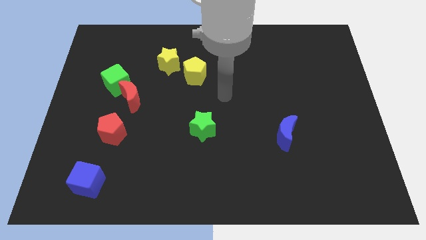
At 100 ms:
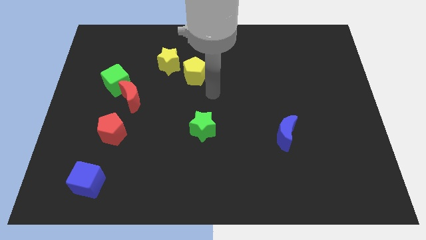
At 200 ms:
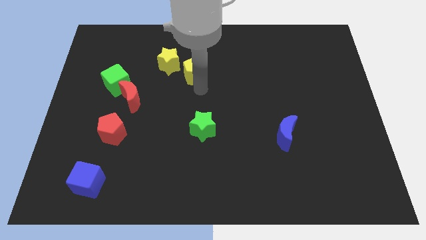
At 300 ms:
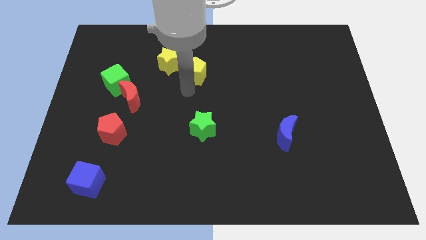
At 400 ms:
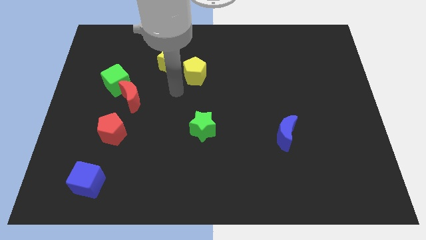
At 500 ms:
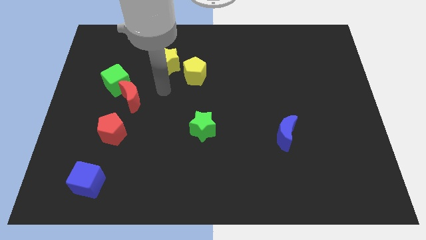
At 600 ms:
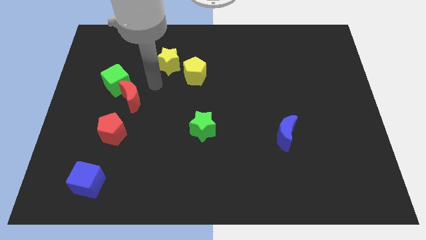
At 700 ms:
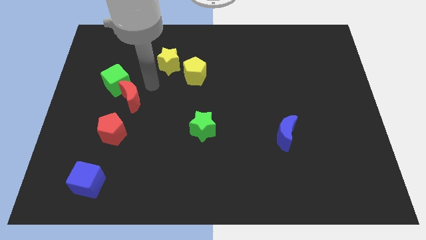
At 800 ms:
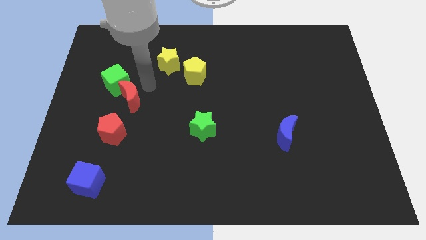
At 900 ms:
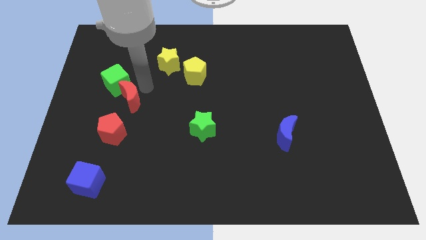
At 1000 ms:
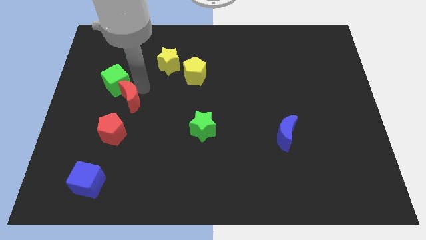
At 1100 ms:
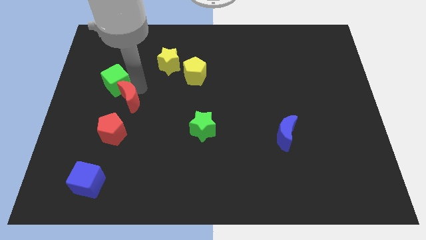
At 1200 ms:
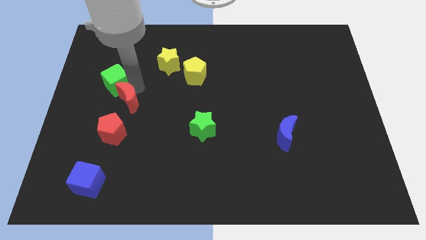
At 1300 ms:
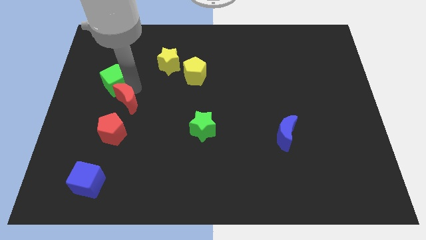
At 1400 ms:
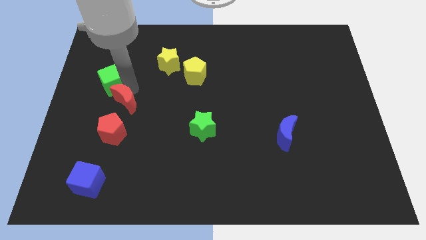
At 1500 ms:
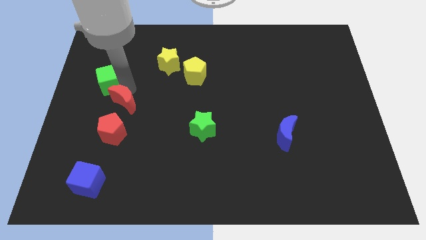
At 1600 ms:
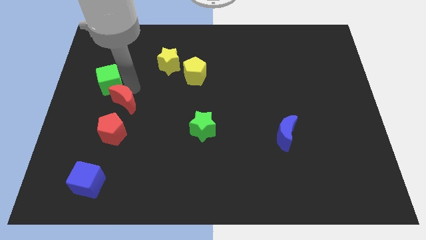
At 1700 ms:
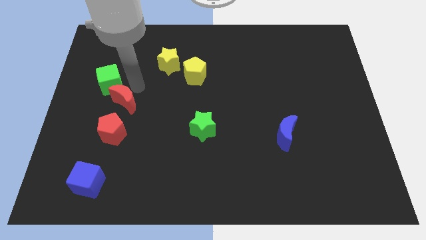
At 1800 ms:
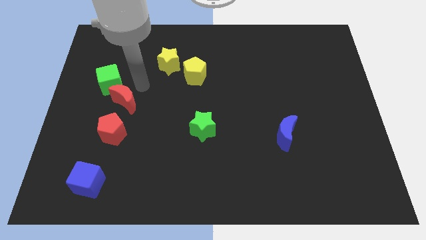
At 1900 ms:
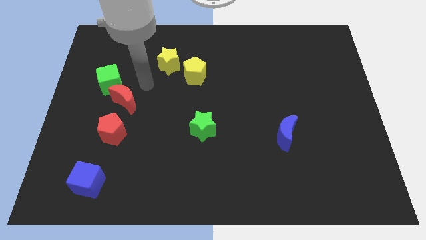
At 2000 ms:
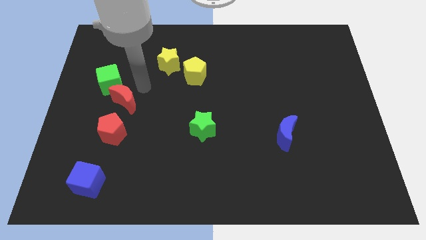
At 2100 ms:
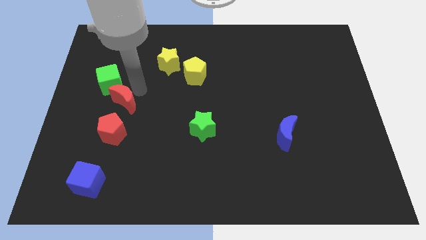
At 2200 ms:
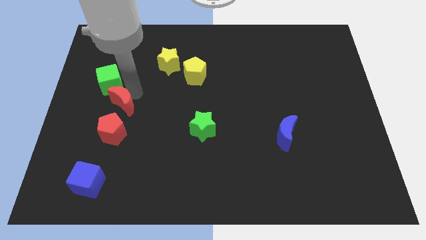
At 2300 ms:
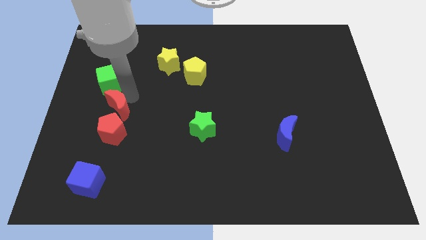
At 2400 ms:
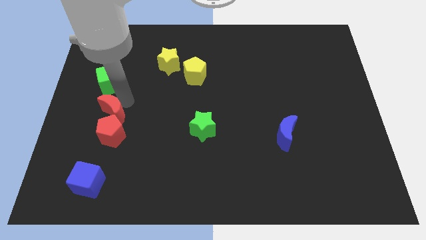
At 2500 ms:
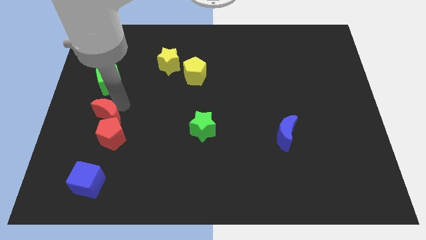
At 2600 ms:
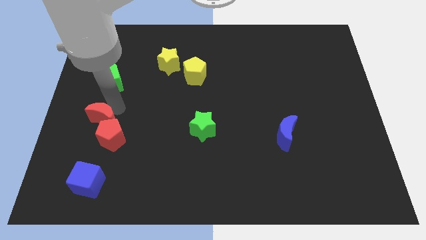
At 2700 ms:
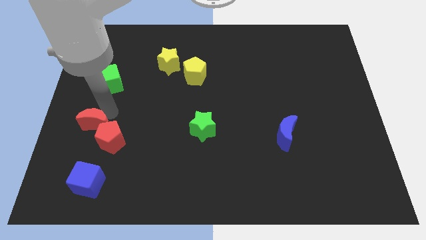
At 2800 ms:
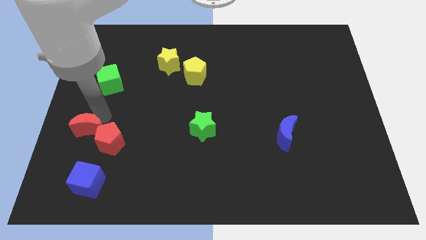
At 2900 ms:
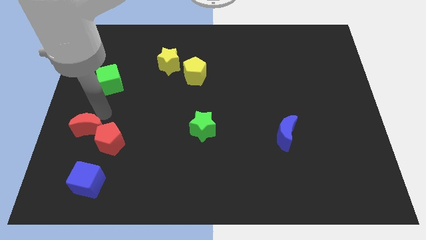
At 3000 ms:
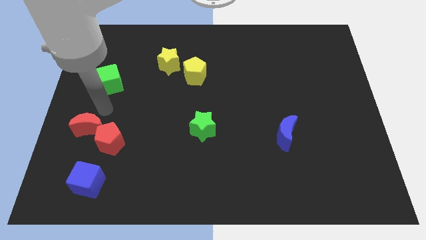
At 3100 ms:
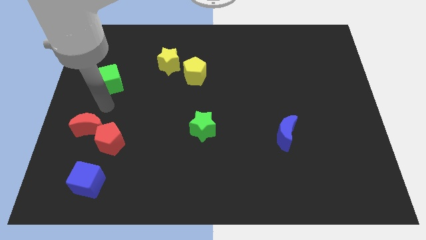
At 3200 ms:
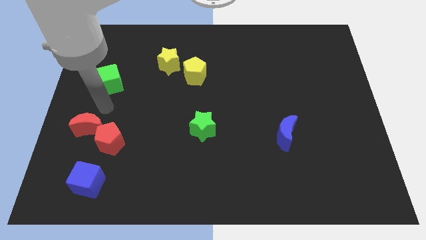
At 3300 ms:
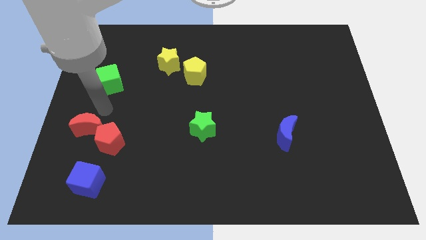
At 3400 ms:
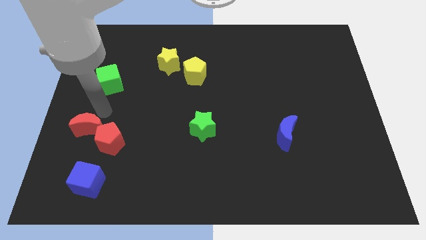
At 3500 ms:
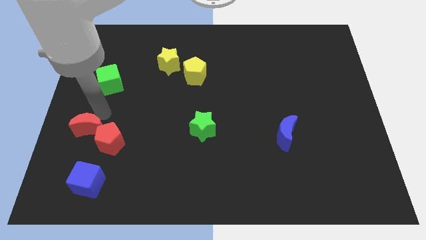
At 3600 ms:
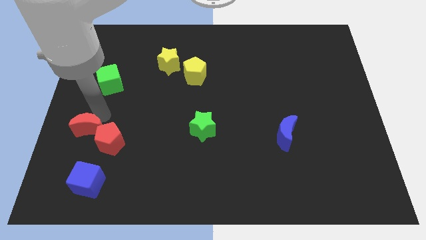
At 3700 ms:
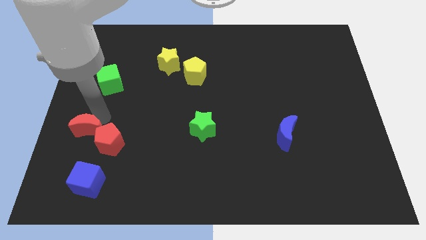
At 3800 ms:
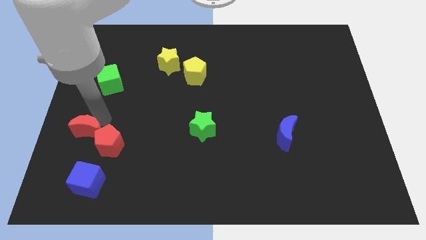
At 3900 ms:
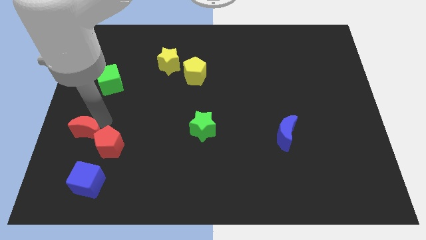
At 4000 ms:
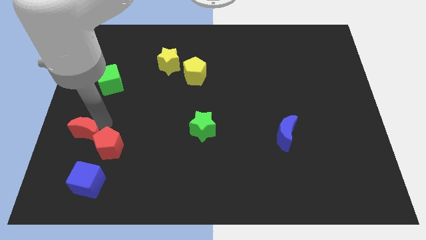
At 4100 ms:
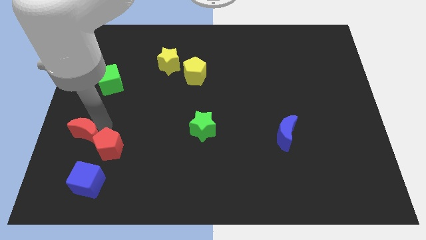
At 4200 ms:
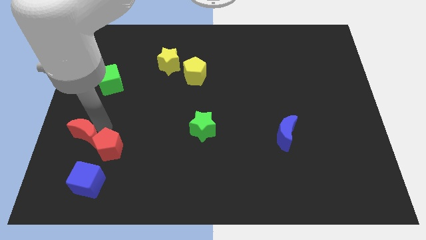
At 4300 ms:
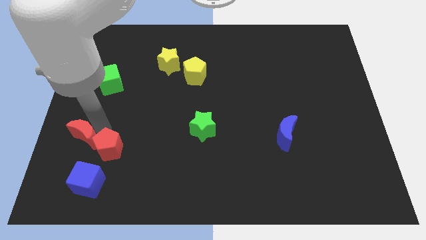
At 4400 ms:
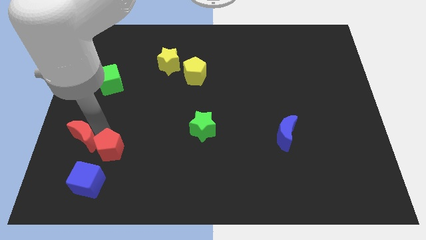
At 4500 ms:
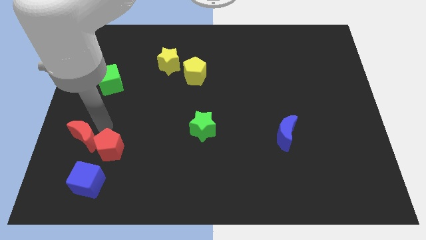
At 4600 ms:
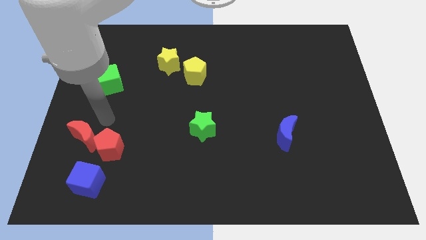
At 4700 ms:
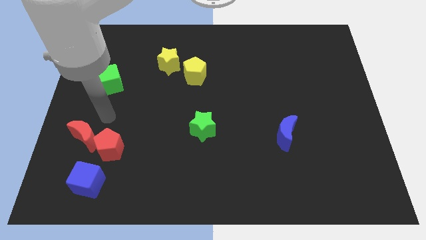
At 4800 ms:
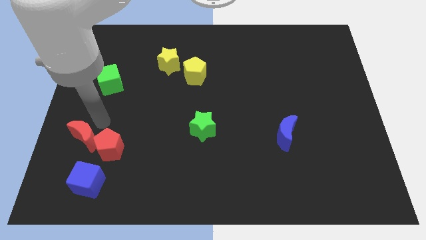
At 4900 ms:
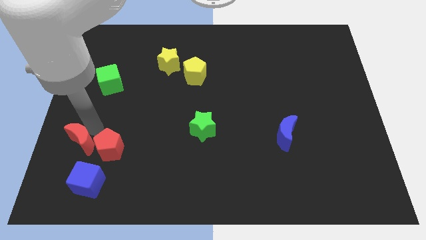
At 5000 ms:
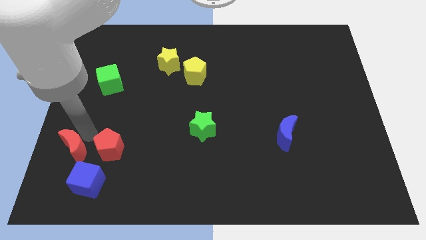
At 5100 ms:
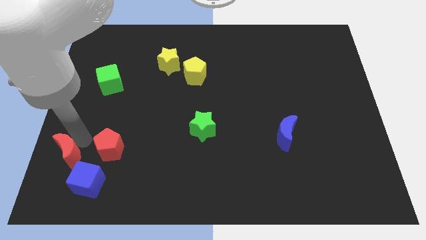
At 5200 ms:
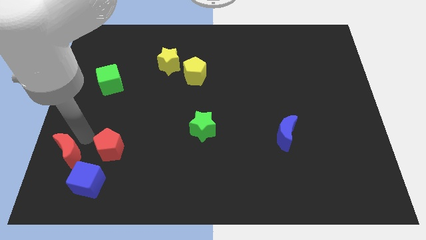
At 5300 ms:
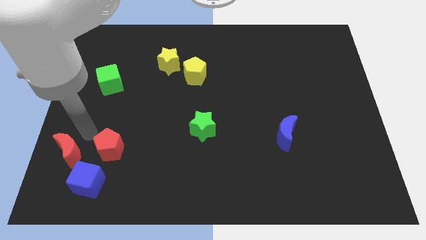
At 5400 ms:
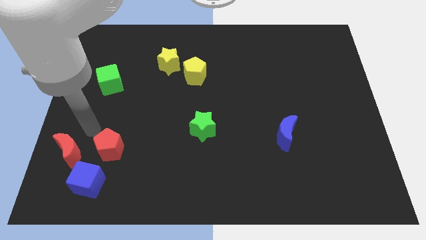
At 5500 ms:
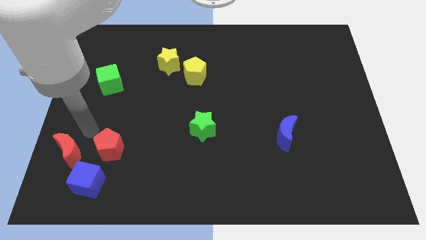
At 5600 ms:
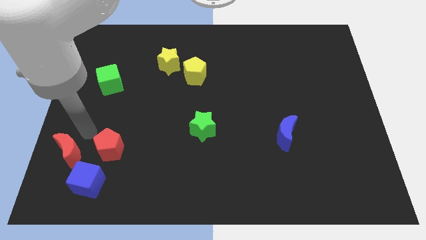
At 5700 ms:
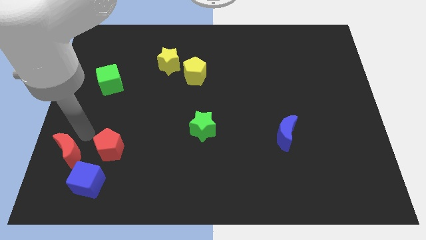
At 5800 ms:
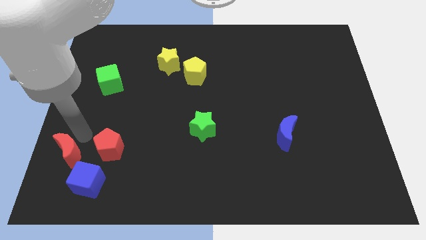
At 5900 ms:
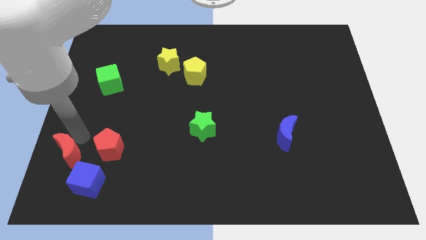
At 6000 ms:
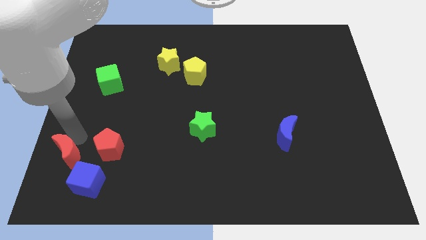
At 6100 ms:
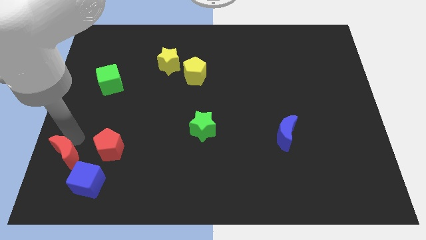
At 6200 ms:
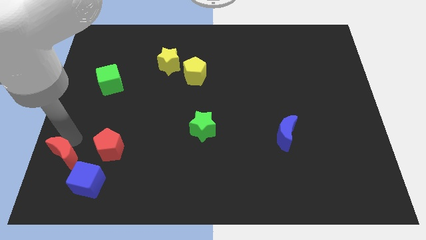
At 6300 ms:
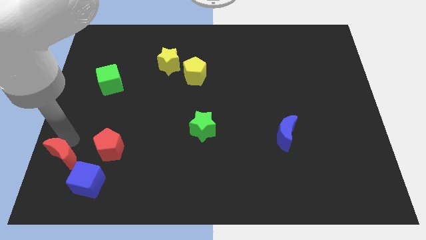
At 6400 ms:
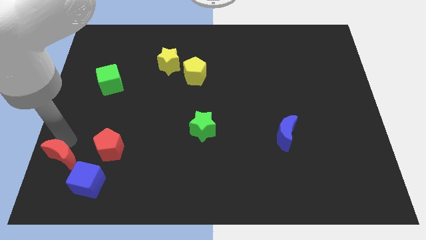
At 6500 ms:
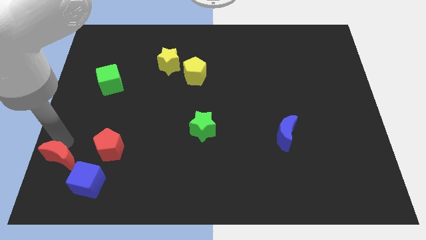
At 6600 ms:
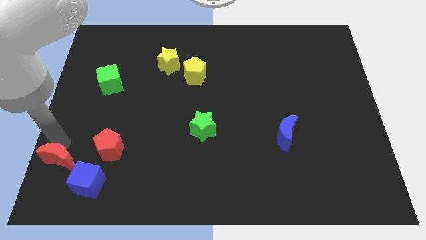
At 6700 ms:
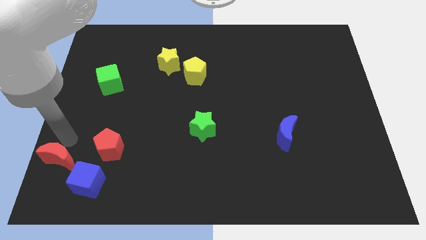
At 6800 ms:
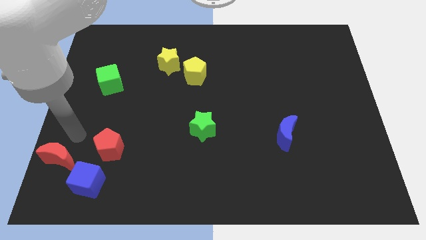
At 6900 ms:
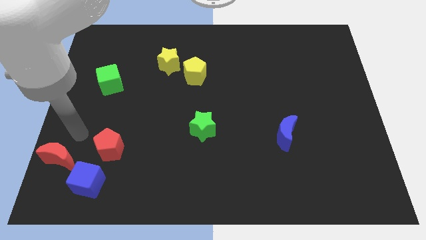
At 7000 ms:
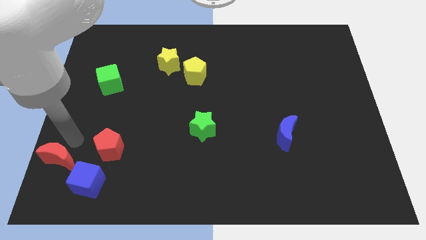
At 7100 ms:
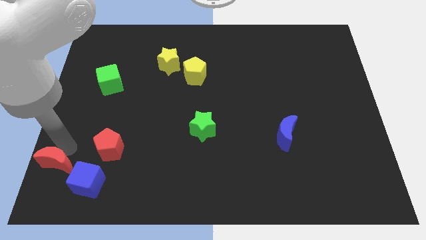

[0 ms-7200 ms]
push the red moon to the bottom left corner
